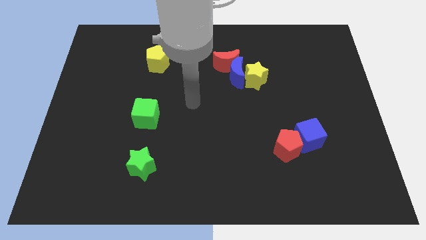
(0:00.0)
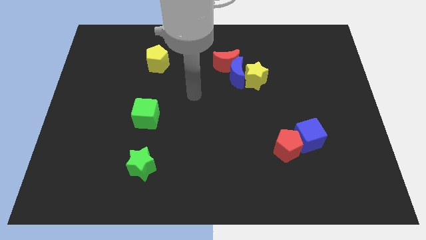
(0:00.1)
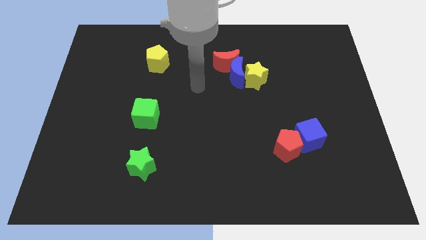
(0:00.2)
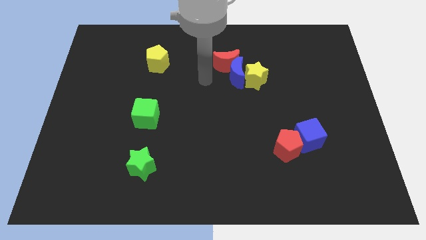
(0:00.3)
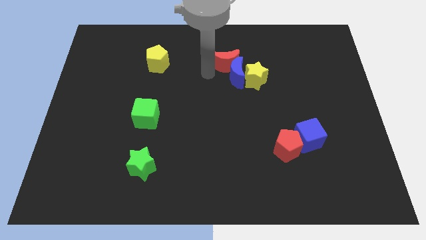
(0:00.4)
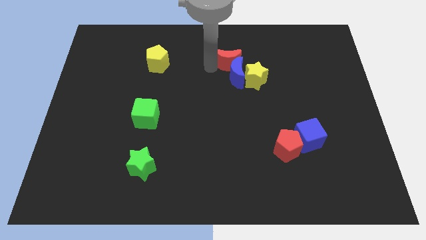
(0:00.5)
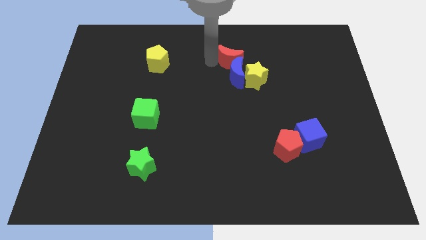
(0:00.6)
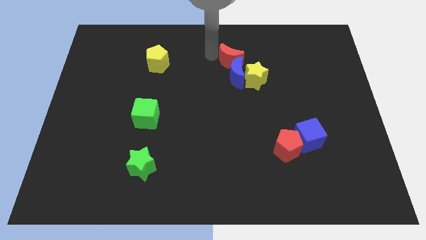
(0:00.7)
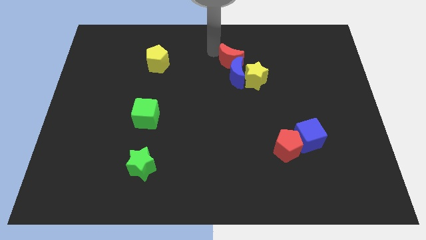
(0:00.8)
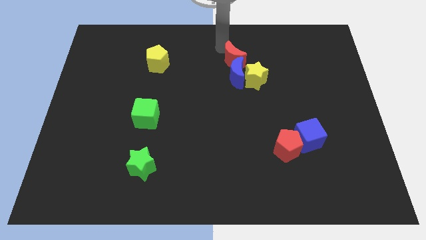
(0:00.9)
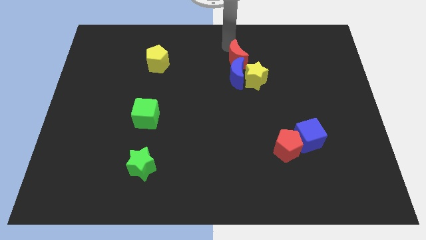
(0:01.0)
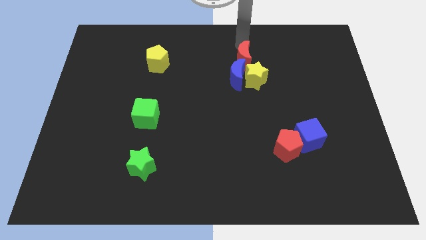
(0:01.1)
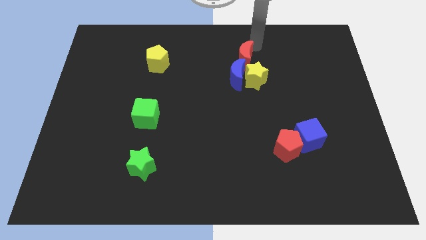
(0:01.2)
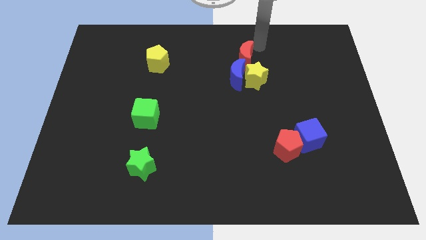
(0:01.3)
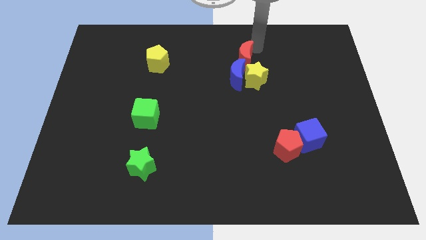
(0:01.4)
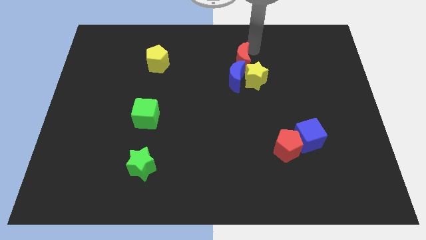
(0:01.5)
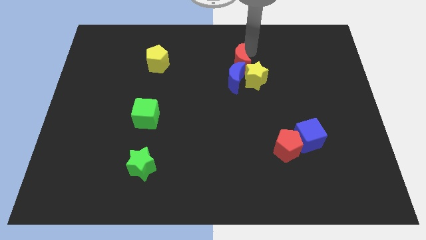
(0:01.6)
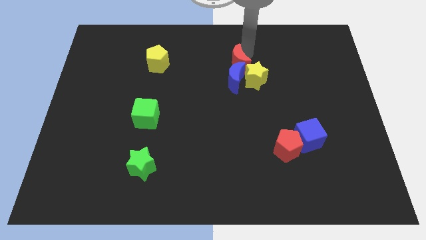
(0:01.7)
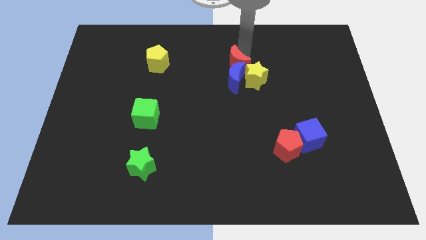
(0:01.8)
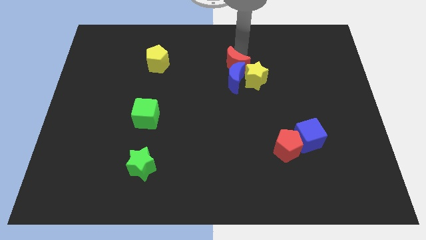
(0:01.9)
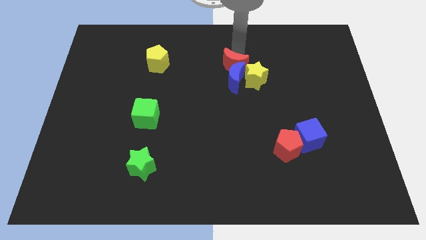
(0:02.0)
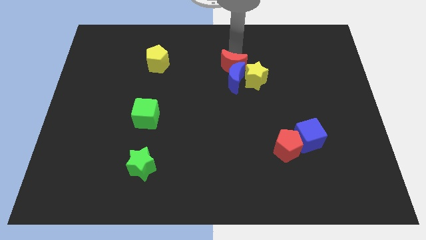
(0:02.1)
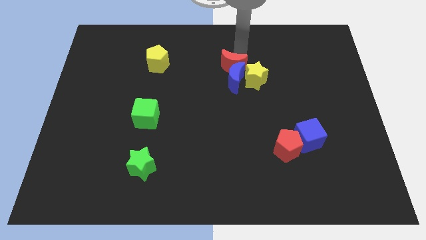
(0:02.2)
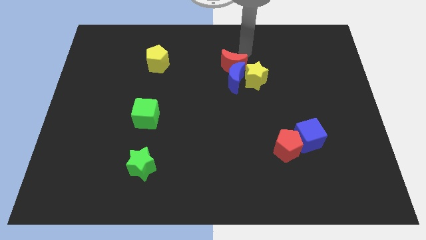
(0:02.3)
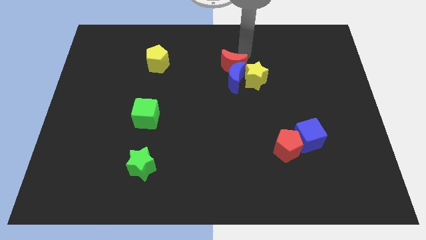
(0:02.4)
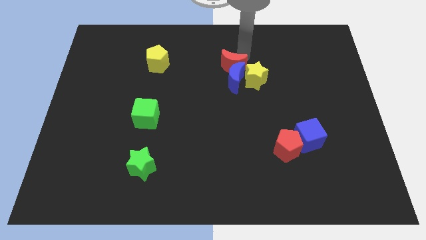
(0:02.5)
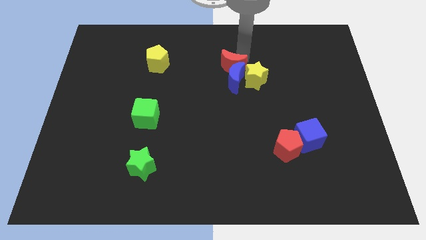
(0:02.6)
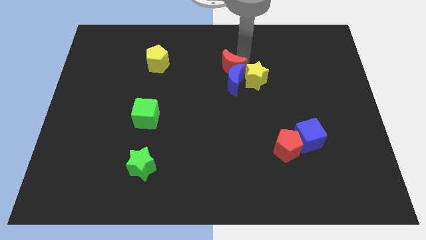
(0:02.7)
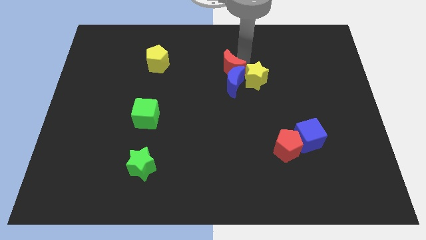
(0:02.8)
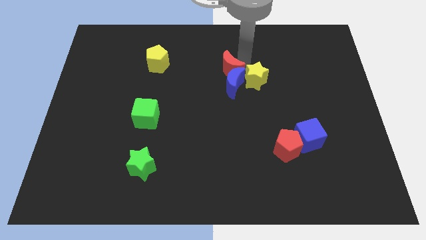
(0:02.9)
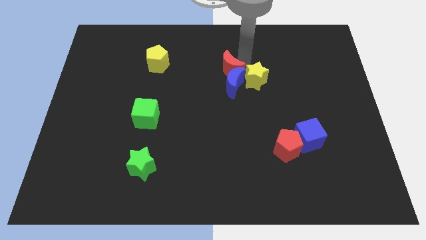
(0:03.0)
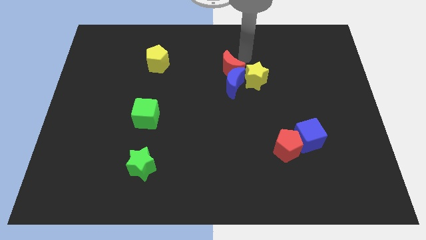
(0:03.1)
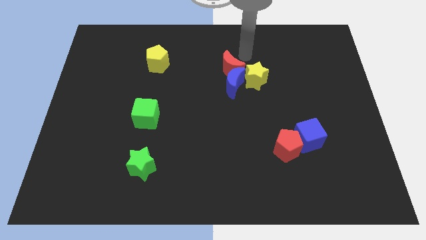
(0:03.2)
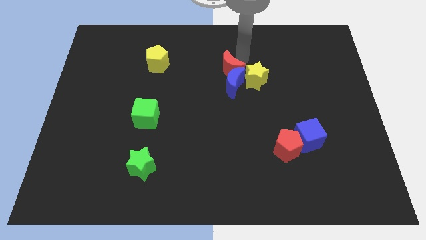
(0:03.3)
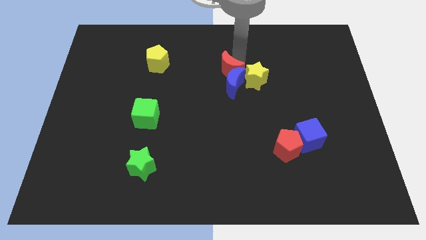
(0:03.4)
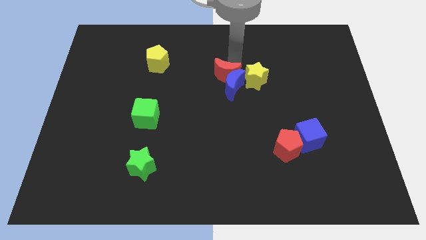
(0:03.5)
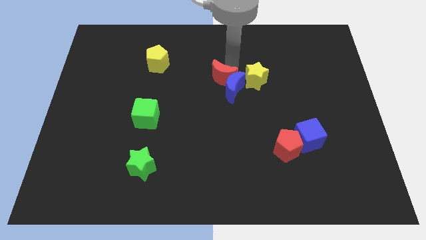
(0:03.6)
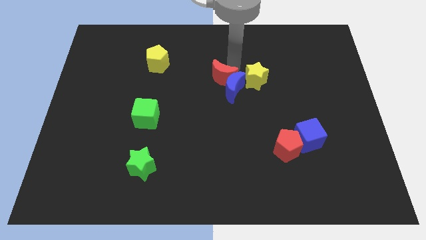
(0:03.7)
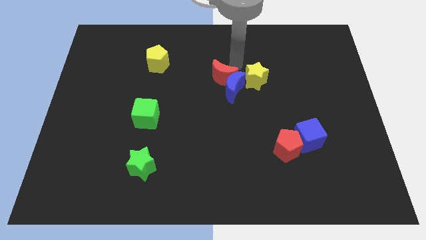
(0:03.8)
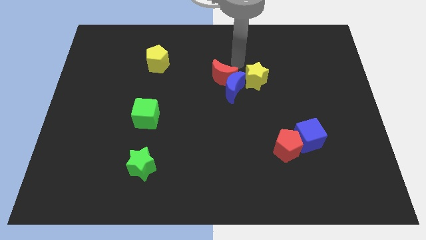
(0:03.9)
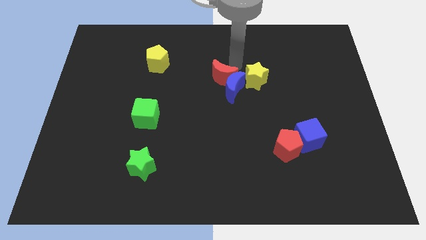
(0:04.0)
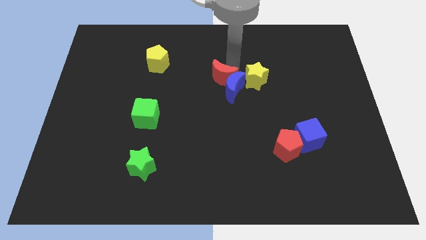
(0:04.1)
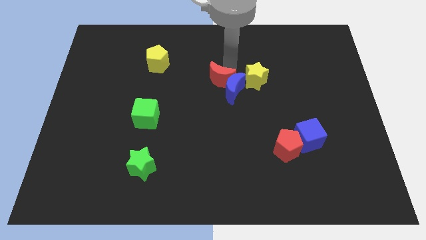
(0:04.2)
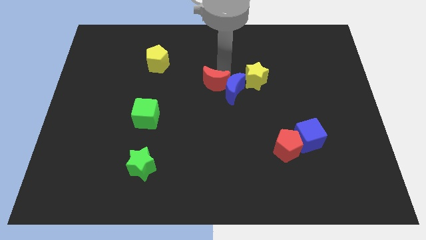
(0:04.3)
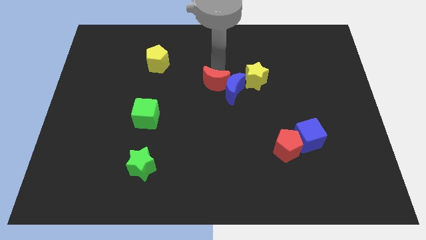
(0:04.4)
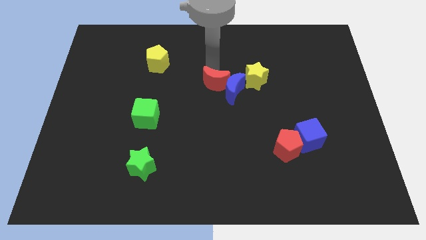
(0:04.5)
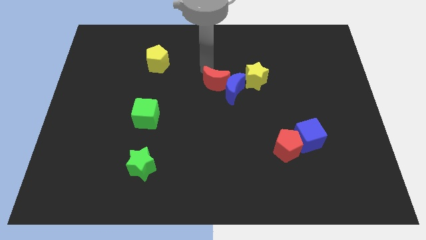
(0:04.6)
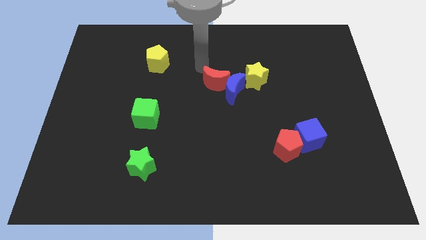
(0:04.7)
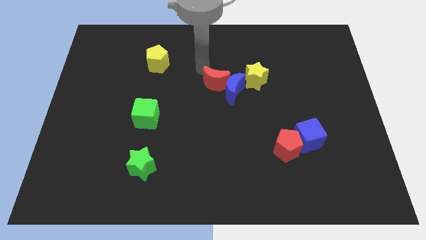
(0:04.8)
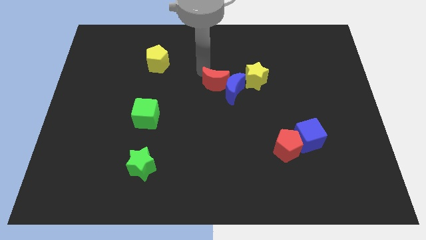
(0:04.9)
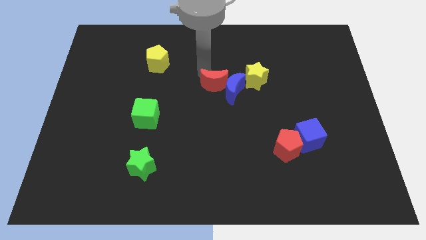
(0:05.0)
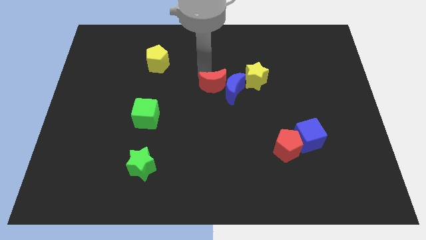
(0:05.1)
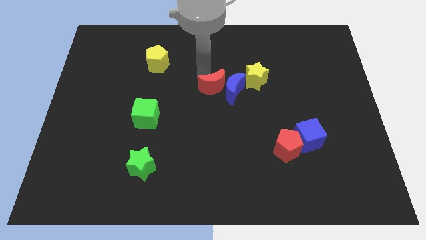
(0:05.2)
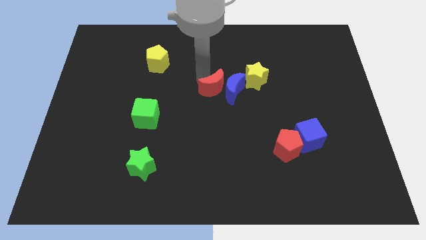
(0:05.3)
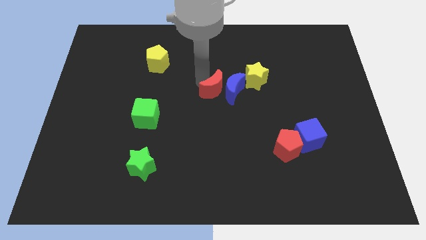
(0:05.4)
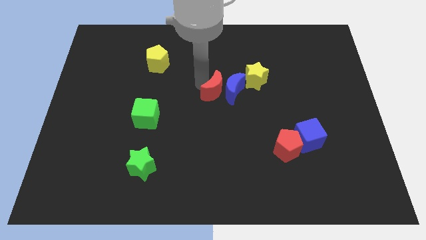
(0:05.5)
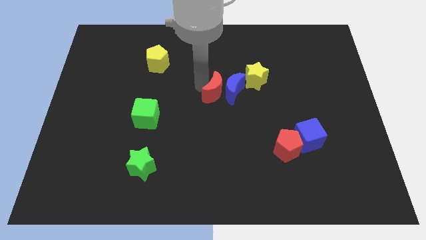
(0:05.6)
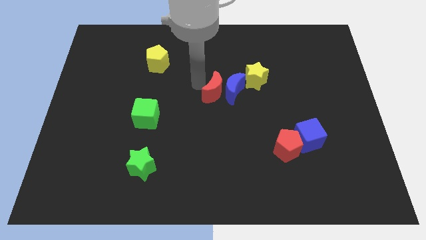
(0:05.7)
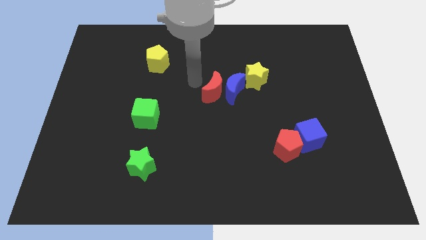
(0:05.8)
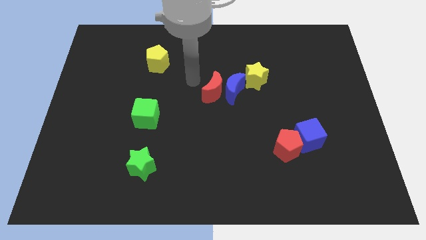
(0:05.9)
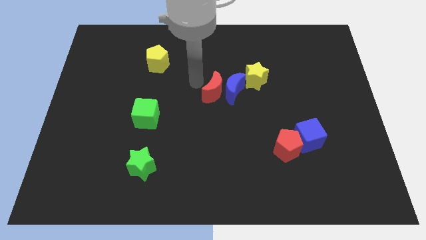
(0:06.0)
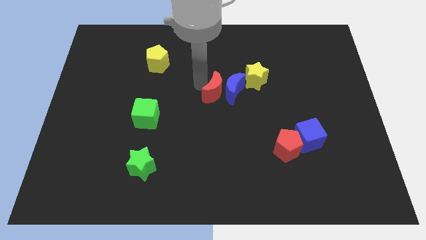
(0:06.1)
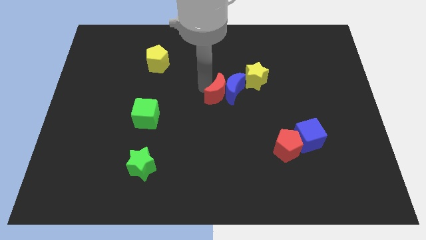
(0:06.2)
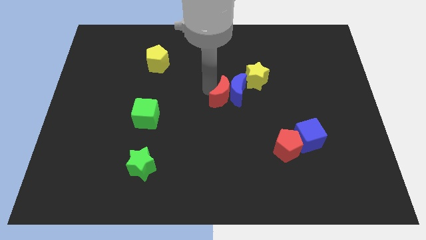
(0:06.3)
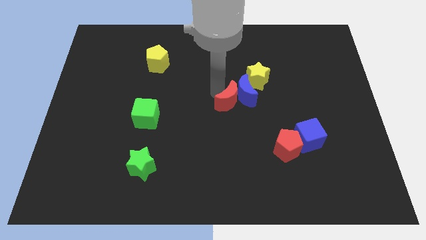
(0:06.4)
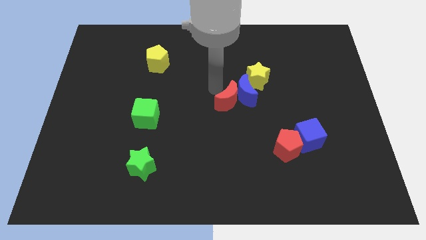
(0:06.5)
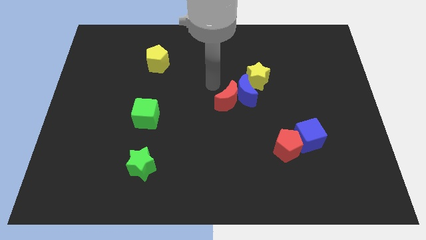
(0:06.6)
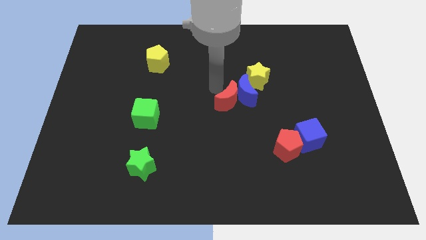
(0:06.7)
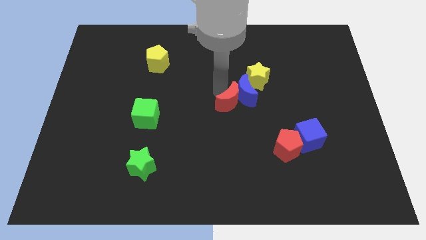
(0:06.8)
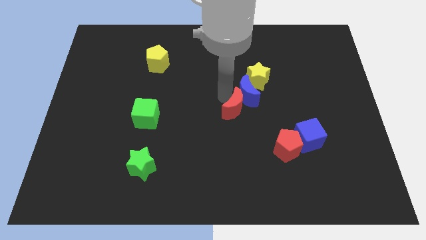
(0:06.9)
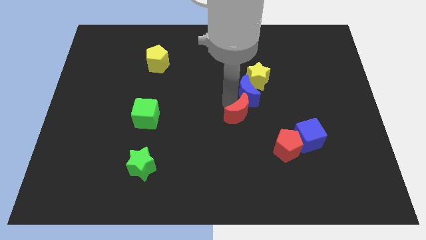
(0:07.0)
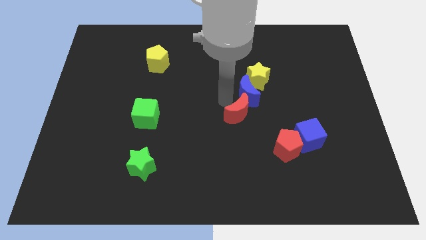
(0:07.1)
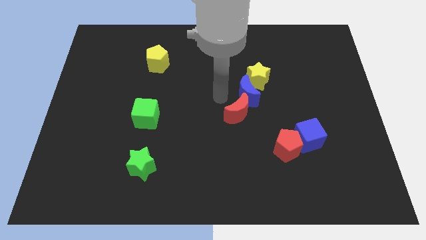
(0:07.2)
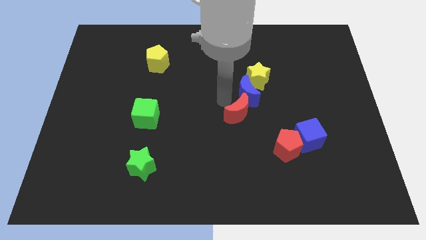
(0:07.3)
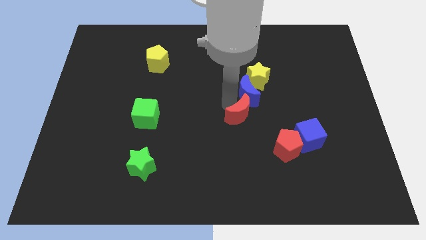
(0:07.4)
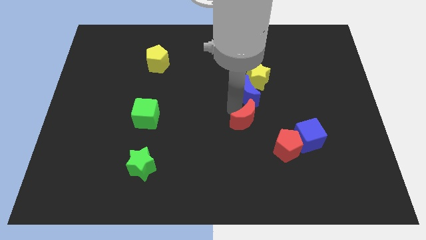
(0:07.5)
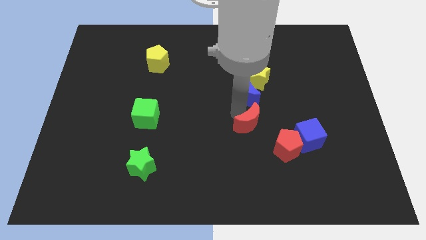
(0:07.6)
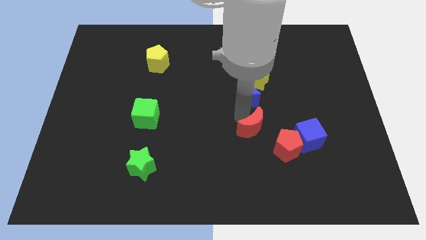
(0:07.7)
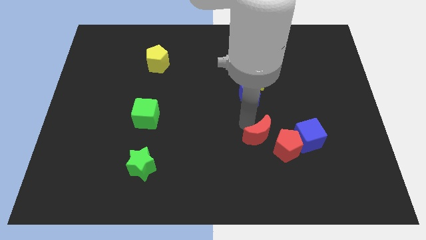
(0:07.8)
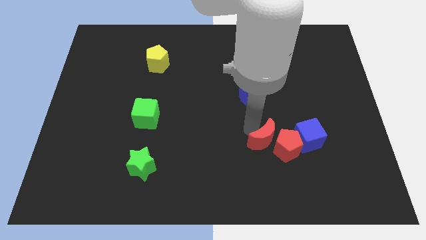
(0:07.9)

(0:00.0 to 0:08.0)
slide the red moon close to the red pentagon

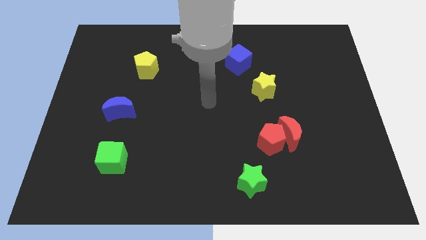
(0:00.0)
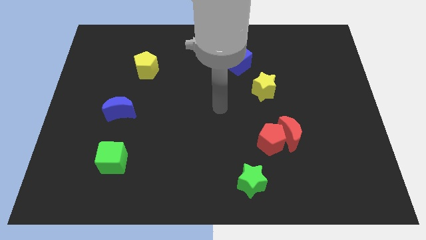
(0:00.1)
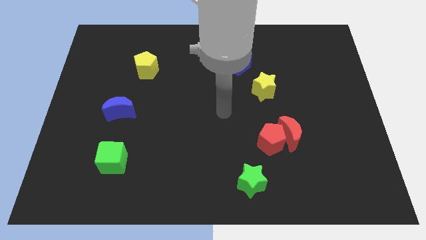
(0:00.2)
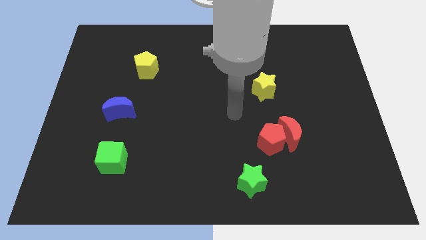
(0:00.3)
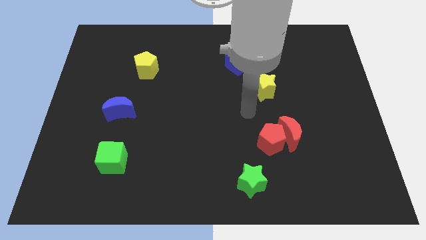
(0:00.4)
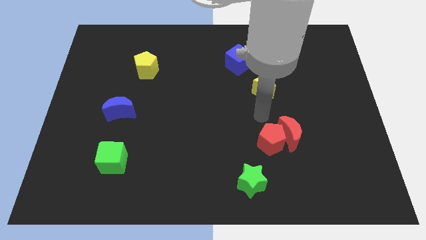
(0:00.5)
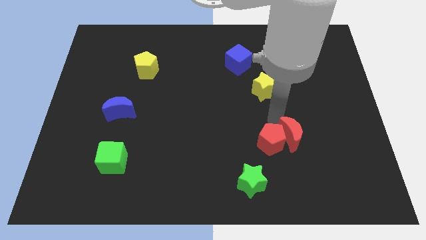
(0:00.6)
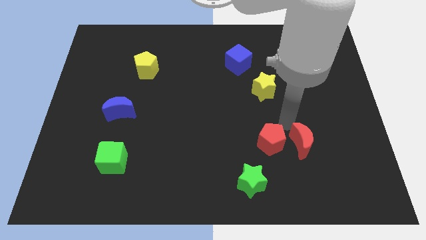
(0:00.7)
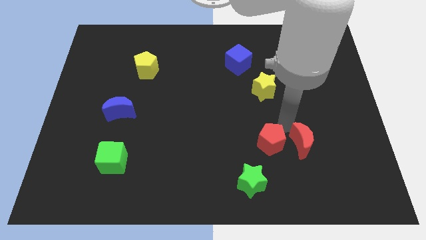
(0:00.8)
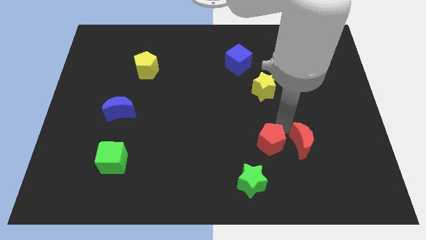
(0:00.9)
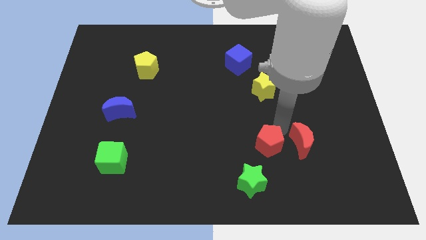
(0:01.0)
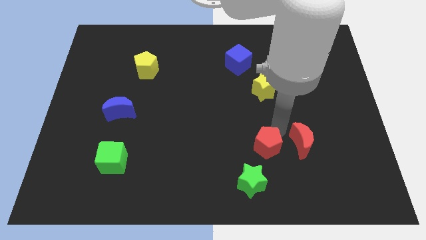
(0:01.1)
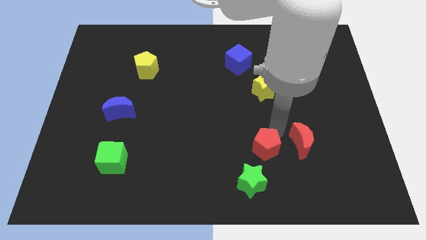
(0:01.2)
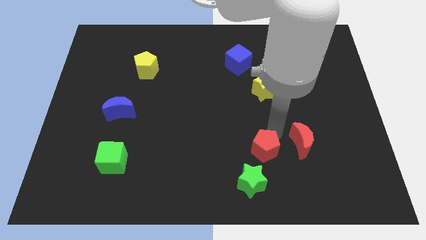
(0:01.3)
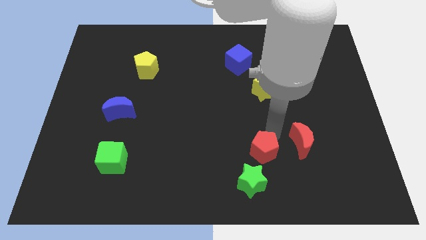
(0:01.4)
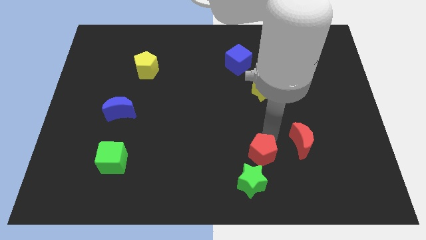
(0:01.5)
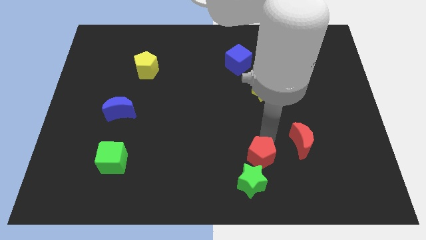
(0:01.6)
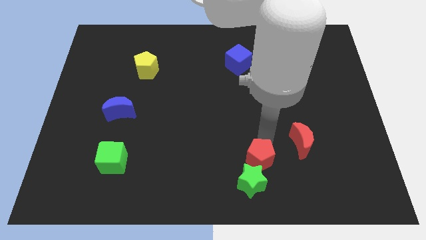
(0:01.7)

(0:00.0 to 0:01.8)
move the red pentagon to the green star
